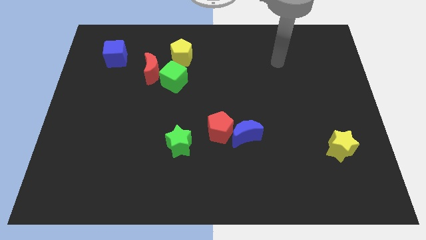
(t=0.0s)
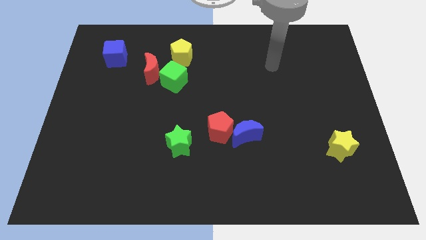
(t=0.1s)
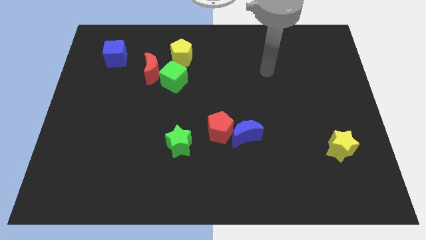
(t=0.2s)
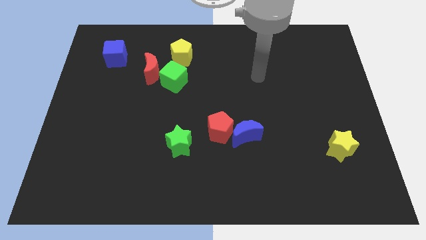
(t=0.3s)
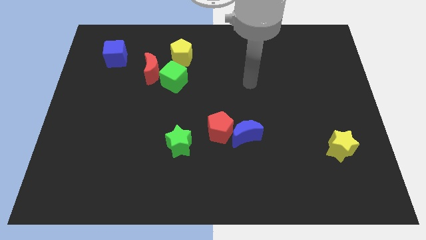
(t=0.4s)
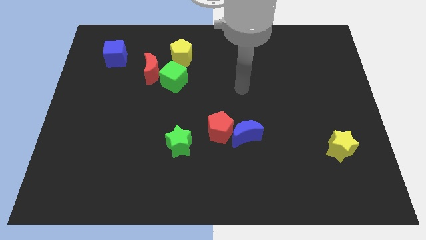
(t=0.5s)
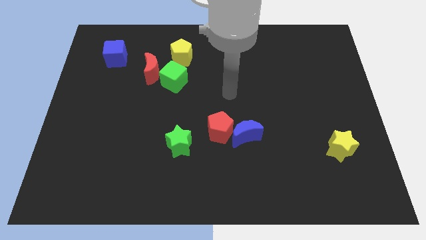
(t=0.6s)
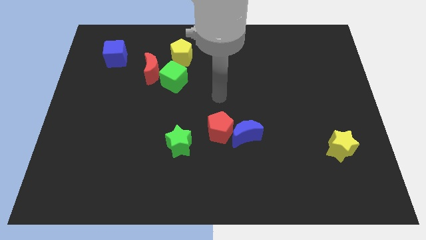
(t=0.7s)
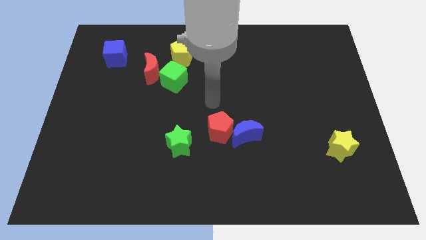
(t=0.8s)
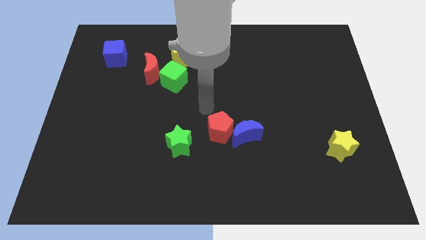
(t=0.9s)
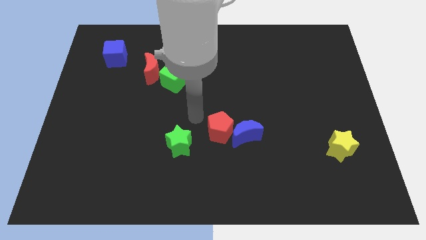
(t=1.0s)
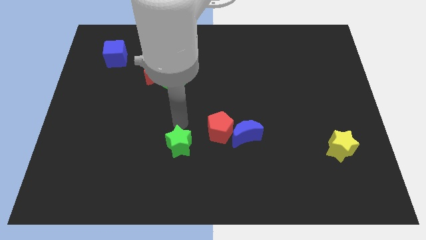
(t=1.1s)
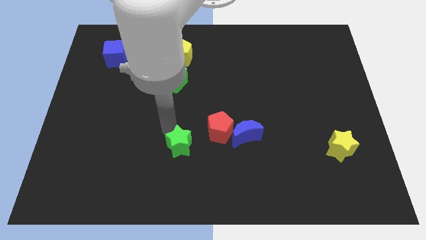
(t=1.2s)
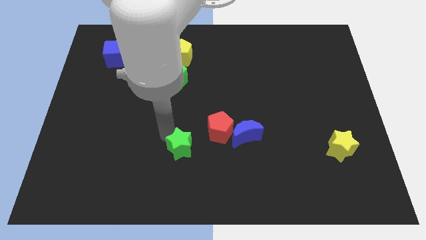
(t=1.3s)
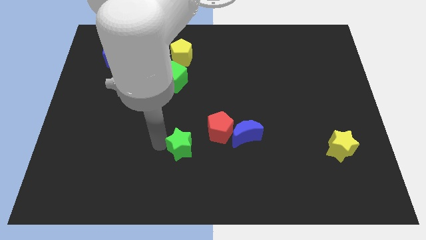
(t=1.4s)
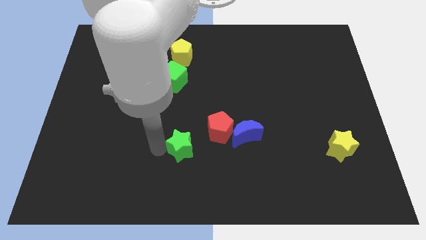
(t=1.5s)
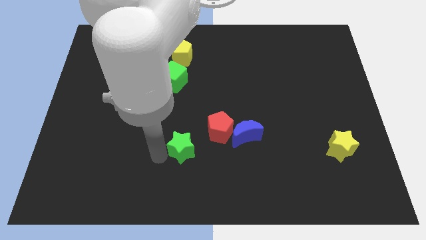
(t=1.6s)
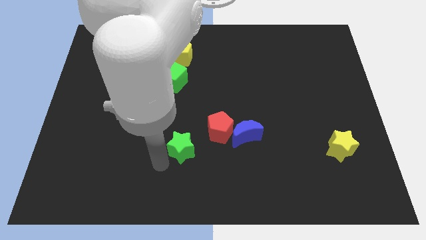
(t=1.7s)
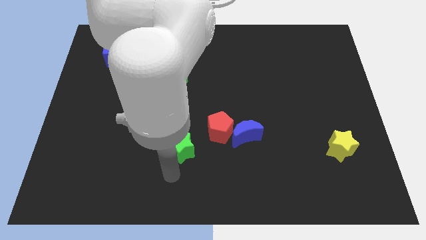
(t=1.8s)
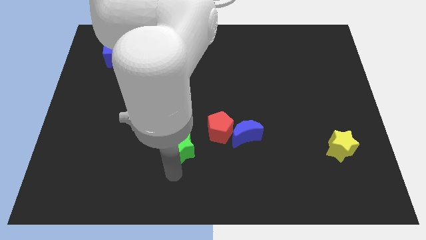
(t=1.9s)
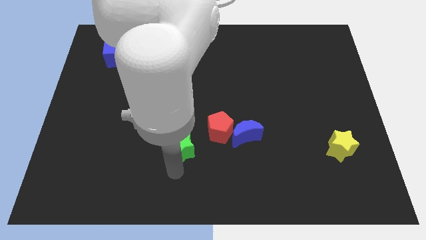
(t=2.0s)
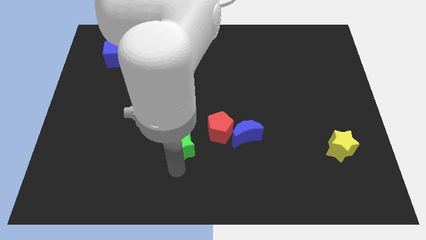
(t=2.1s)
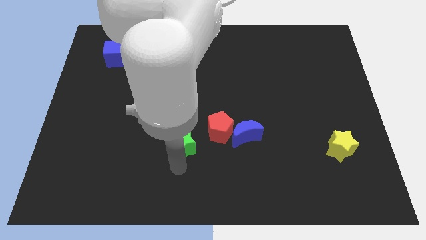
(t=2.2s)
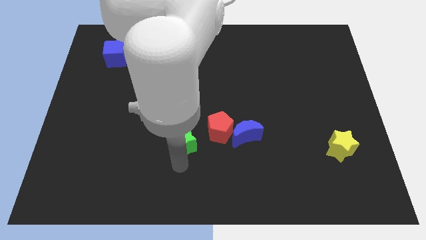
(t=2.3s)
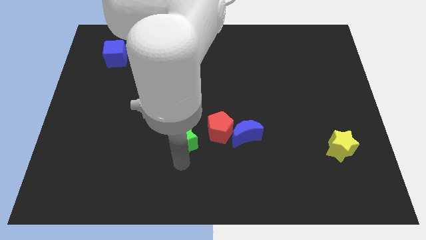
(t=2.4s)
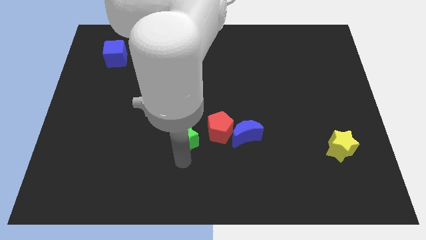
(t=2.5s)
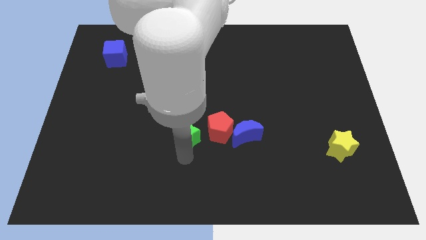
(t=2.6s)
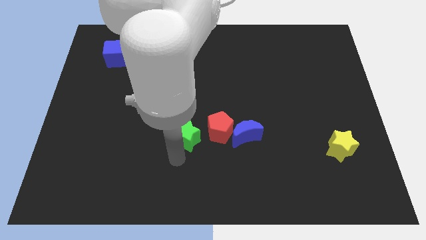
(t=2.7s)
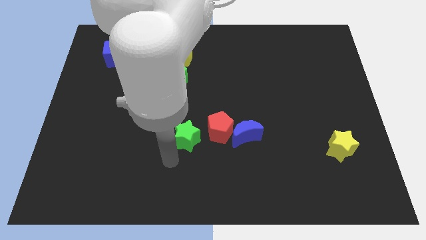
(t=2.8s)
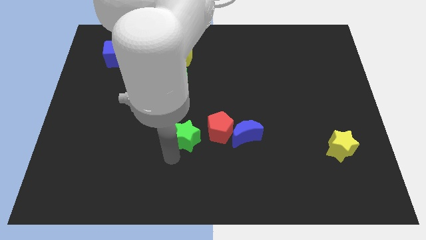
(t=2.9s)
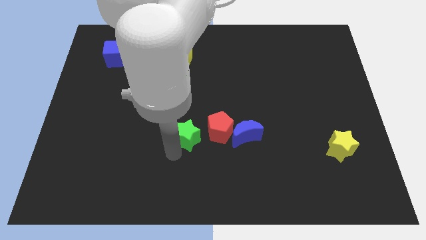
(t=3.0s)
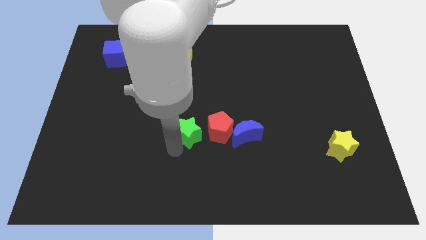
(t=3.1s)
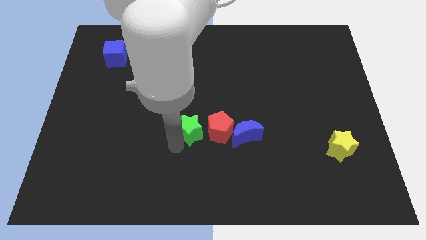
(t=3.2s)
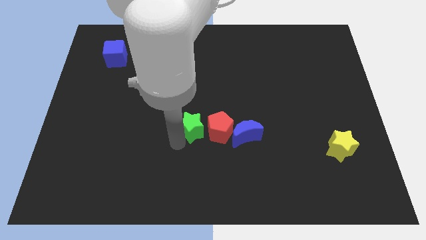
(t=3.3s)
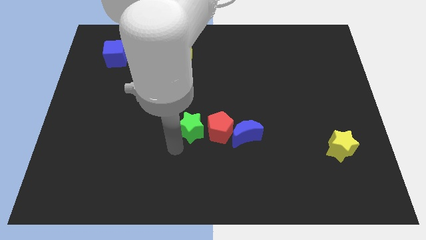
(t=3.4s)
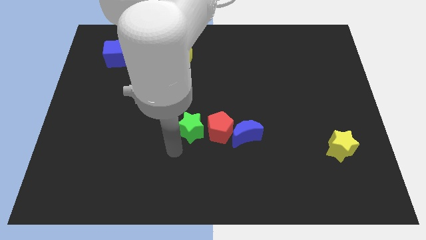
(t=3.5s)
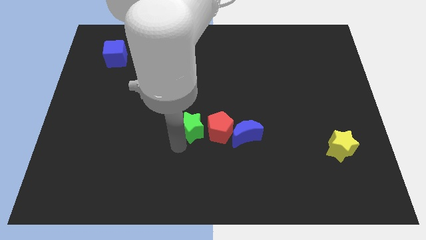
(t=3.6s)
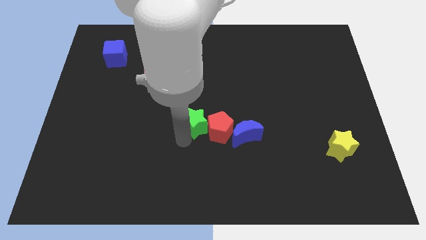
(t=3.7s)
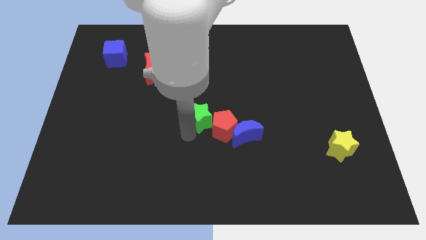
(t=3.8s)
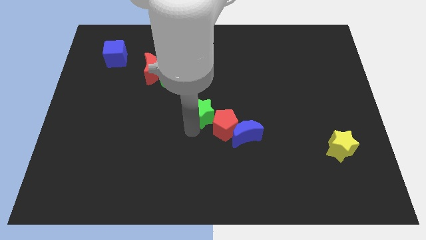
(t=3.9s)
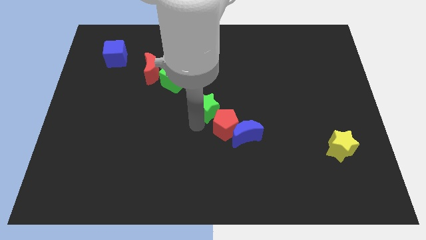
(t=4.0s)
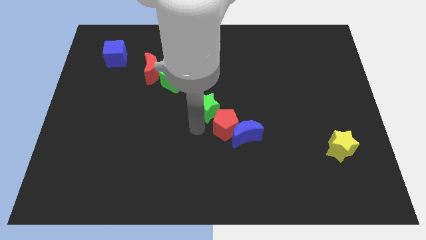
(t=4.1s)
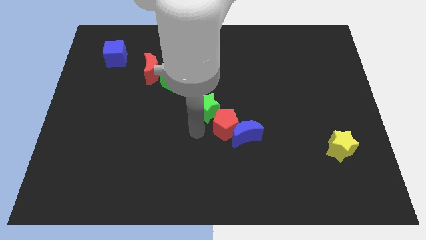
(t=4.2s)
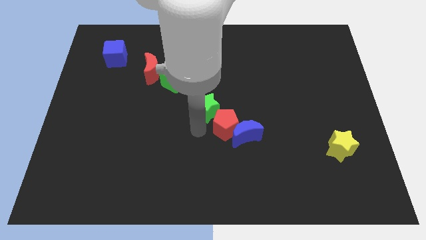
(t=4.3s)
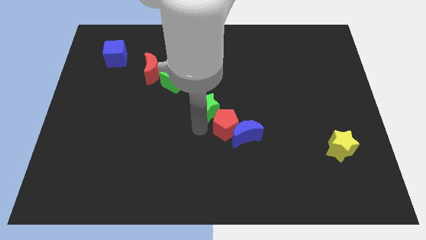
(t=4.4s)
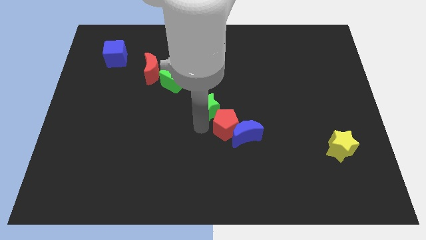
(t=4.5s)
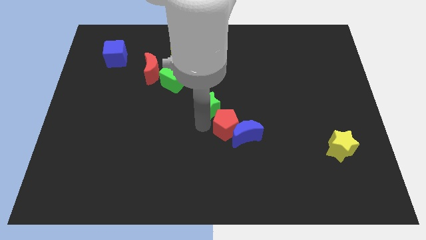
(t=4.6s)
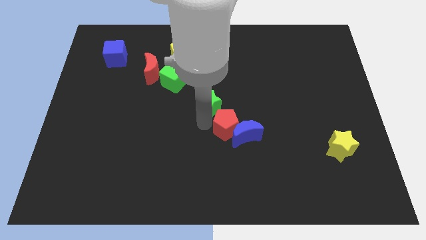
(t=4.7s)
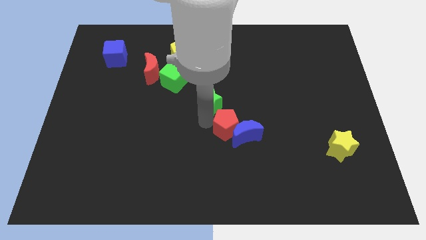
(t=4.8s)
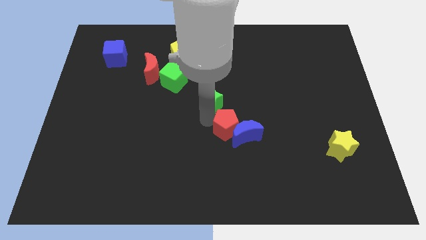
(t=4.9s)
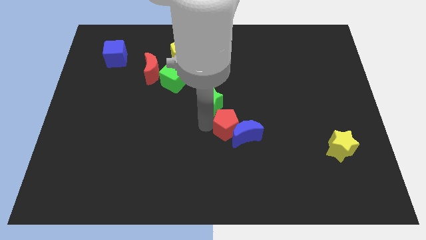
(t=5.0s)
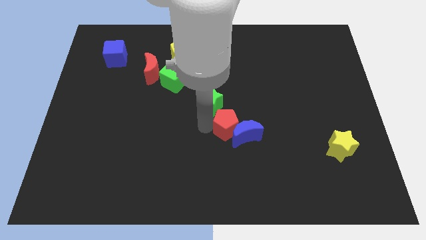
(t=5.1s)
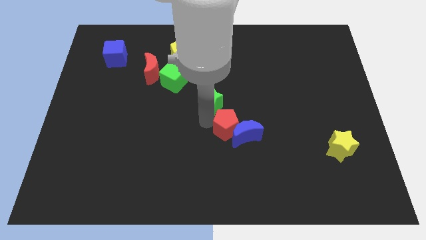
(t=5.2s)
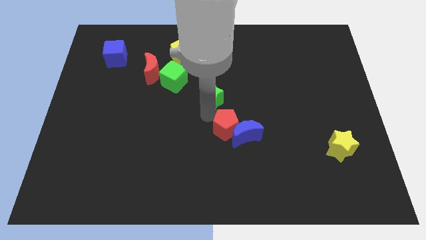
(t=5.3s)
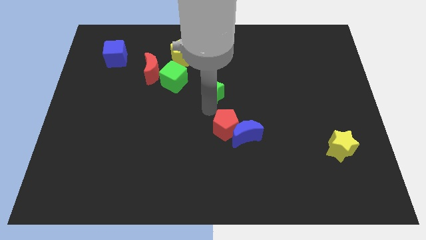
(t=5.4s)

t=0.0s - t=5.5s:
slide the green star to the right side of the green cube

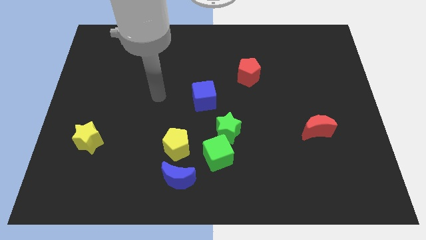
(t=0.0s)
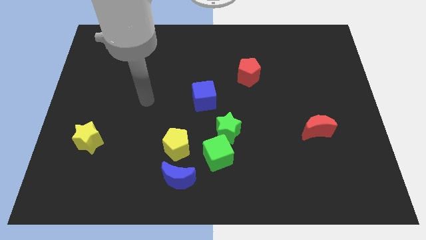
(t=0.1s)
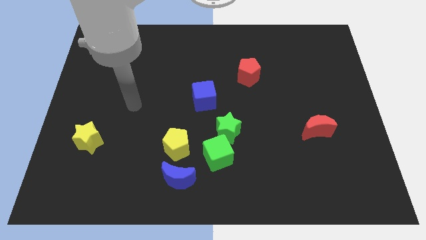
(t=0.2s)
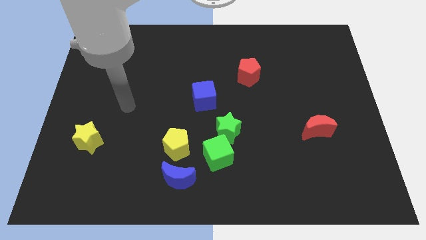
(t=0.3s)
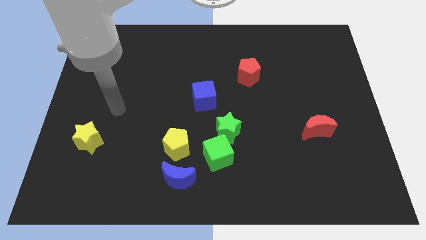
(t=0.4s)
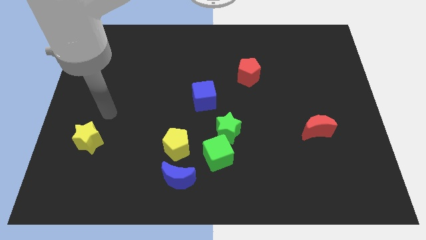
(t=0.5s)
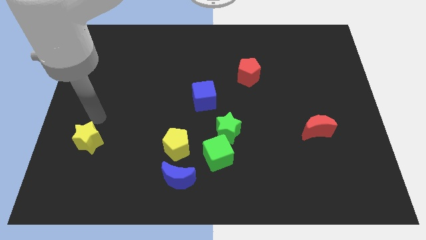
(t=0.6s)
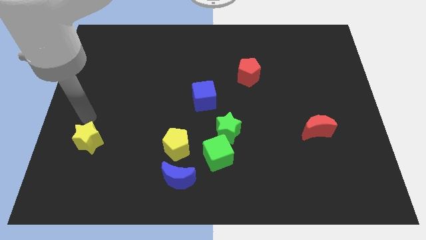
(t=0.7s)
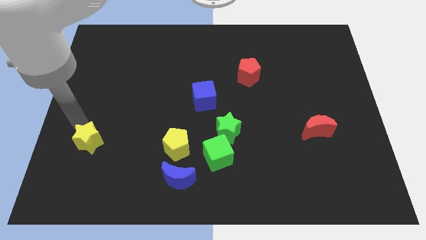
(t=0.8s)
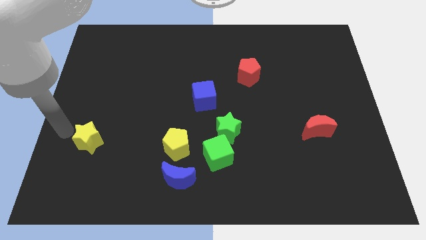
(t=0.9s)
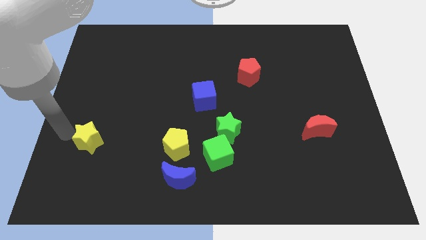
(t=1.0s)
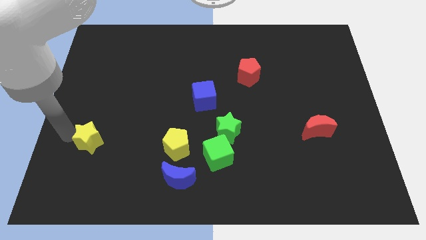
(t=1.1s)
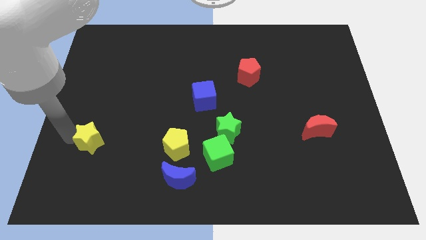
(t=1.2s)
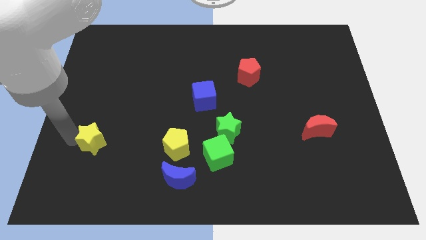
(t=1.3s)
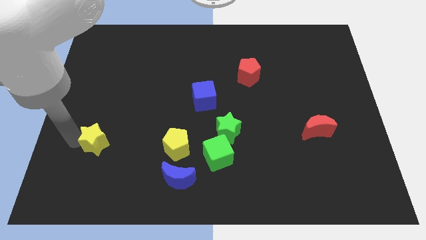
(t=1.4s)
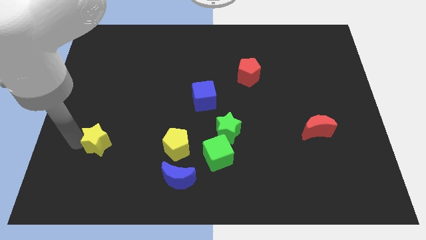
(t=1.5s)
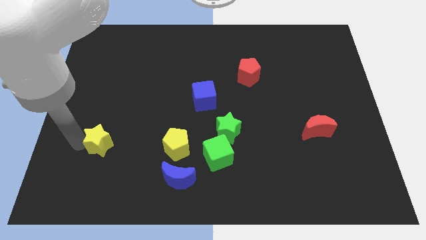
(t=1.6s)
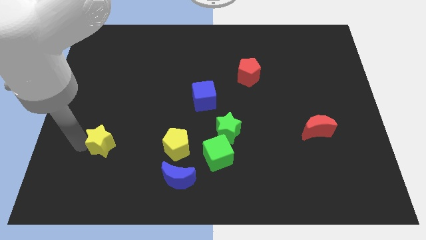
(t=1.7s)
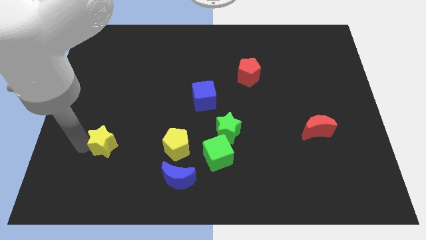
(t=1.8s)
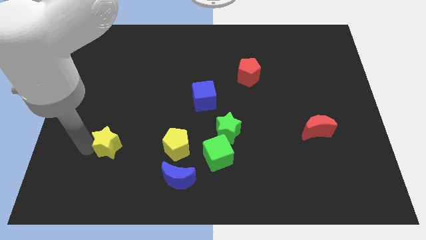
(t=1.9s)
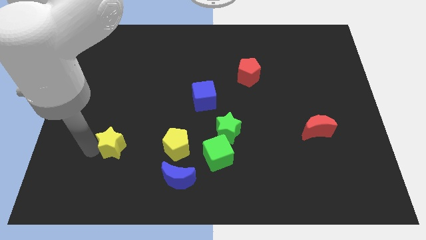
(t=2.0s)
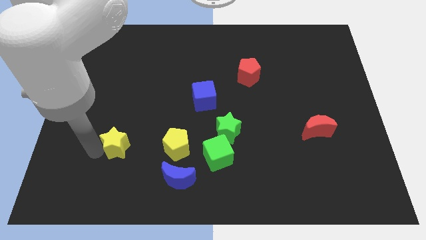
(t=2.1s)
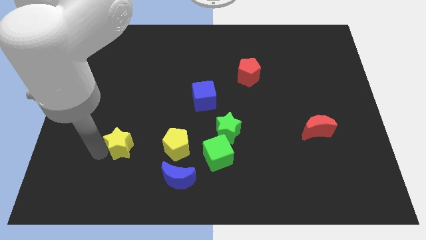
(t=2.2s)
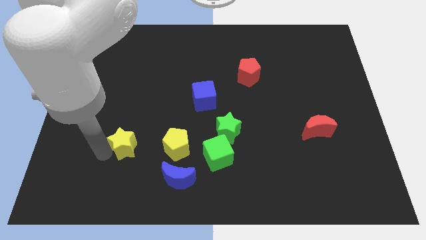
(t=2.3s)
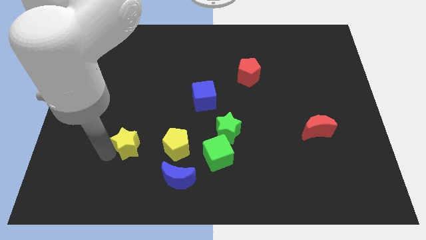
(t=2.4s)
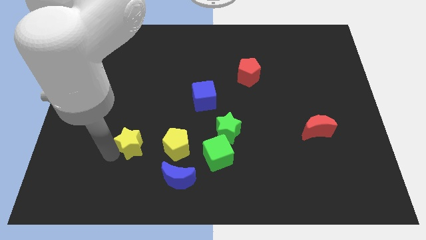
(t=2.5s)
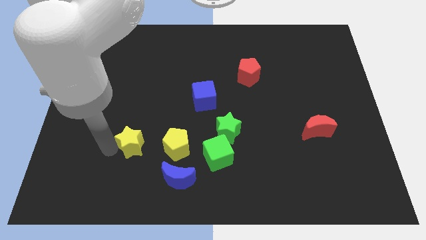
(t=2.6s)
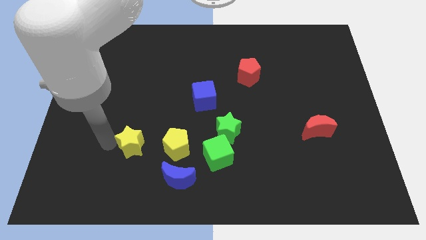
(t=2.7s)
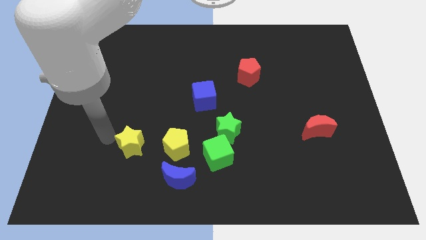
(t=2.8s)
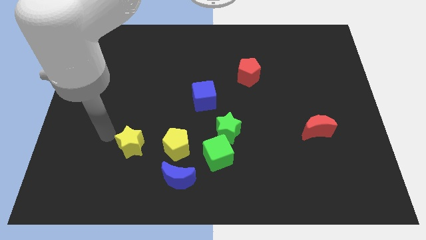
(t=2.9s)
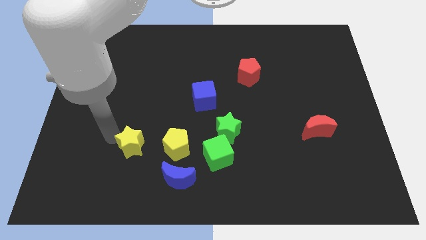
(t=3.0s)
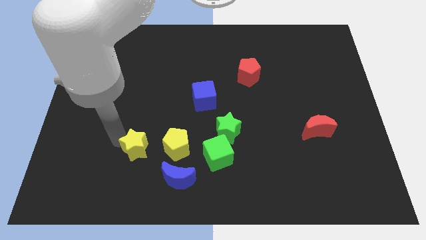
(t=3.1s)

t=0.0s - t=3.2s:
push the yellow star to the top left of the blue moon
